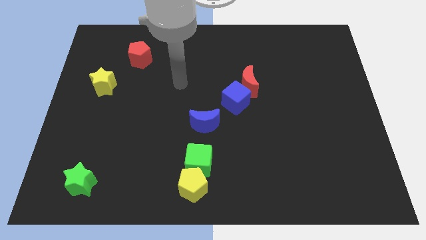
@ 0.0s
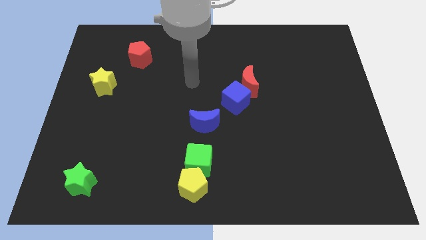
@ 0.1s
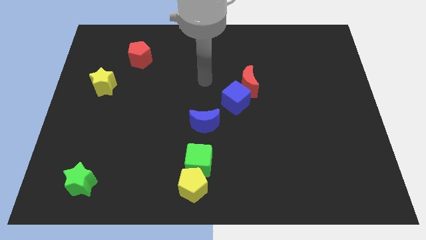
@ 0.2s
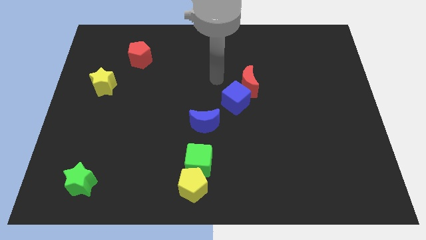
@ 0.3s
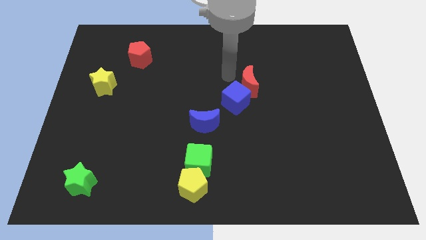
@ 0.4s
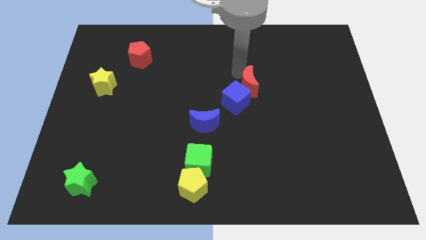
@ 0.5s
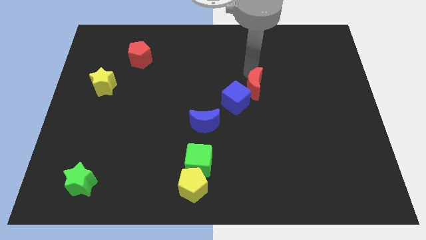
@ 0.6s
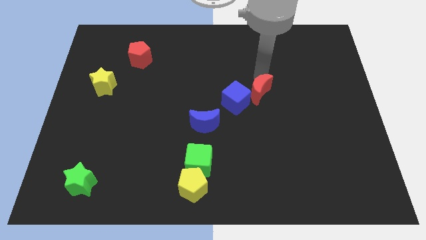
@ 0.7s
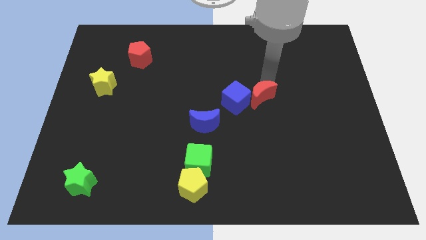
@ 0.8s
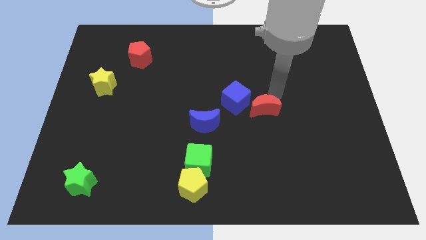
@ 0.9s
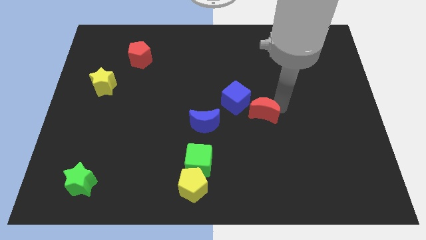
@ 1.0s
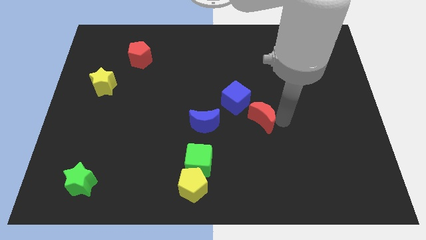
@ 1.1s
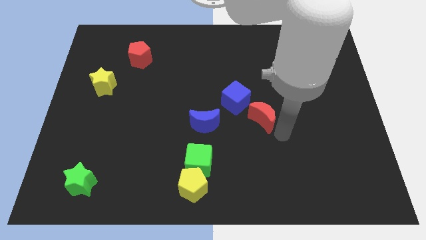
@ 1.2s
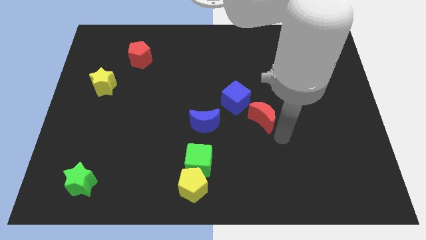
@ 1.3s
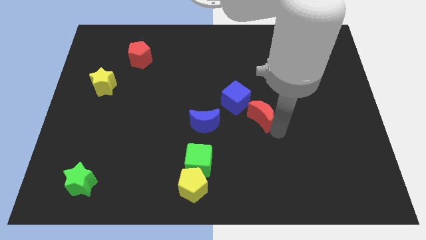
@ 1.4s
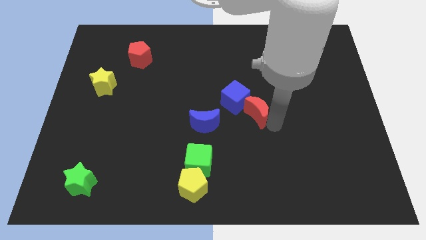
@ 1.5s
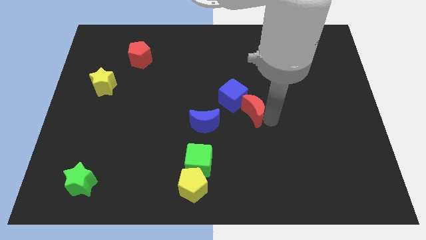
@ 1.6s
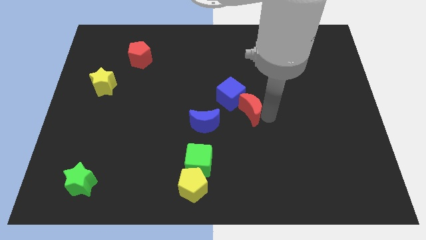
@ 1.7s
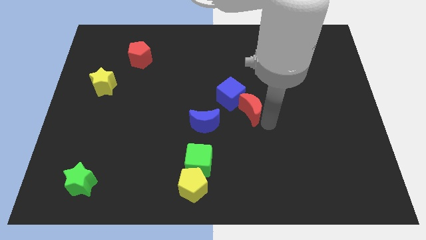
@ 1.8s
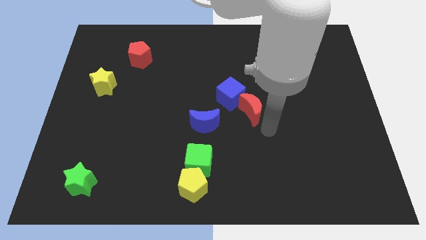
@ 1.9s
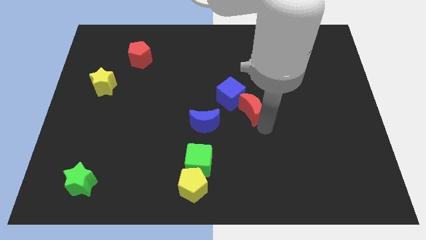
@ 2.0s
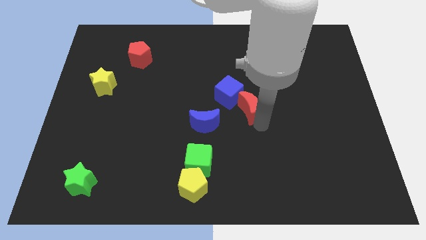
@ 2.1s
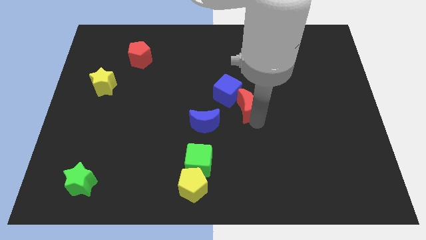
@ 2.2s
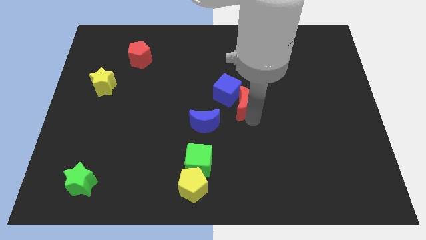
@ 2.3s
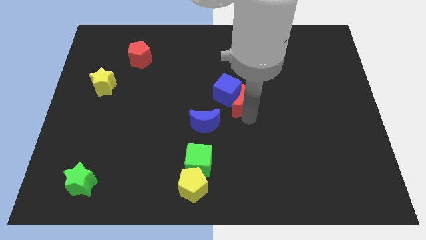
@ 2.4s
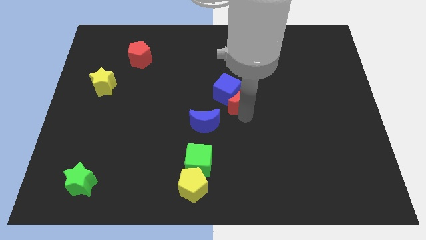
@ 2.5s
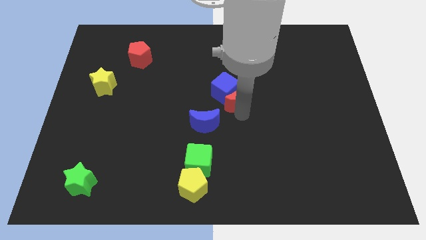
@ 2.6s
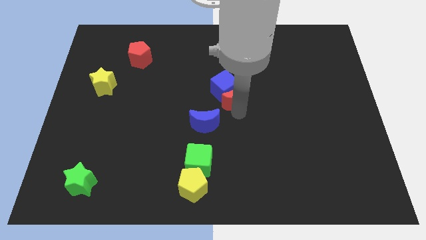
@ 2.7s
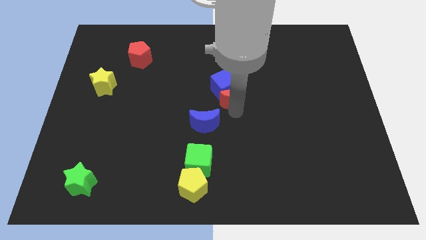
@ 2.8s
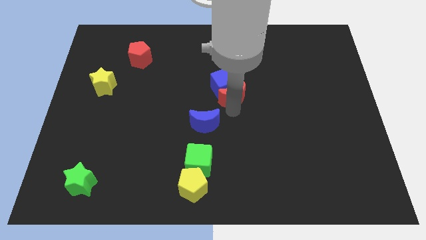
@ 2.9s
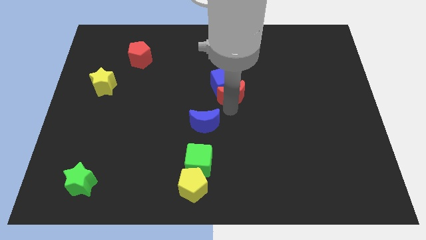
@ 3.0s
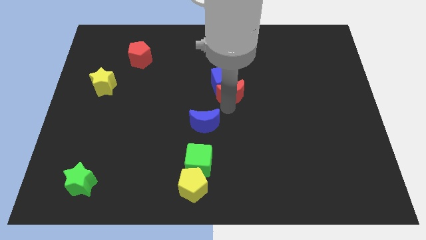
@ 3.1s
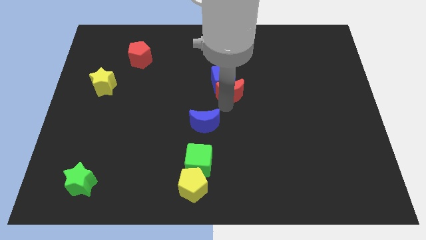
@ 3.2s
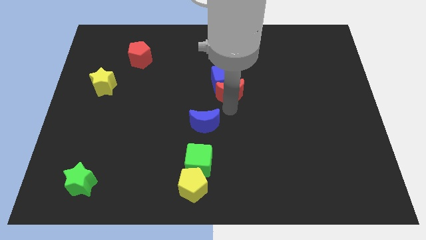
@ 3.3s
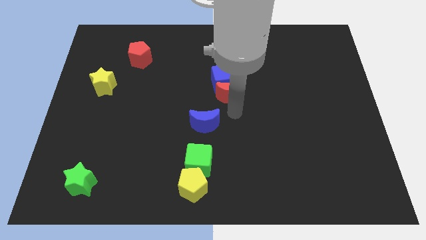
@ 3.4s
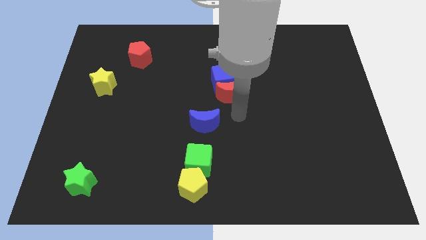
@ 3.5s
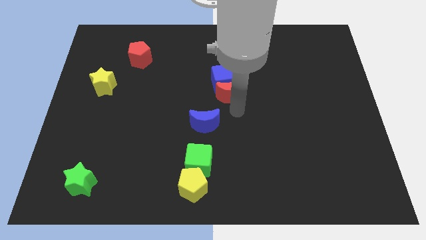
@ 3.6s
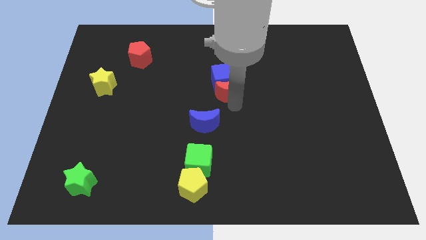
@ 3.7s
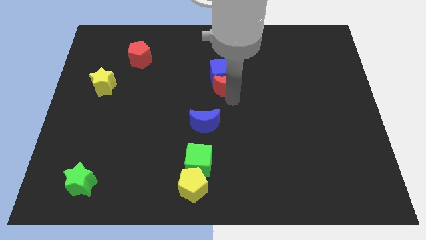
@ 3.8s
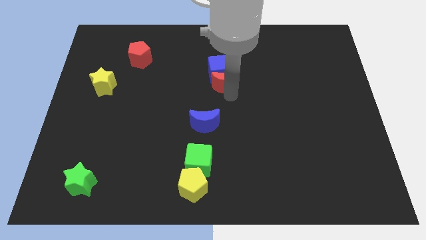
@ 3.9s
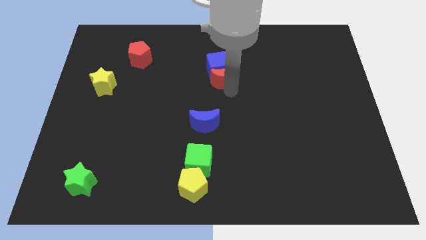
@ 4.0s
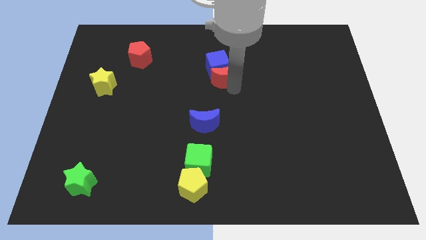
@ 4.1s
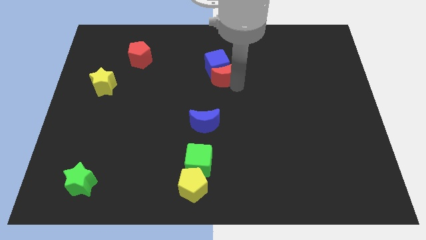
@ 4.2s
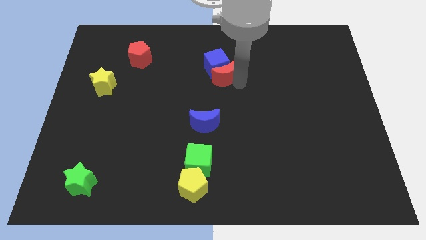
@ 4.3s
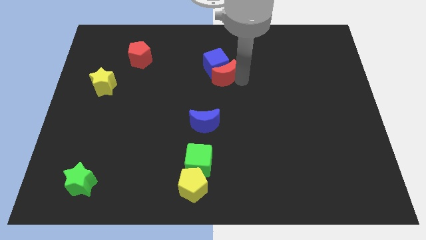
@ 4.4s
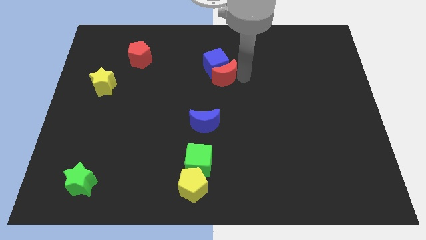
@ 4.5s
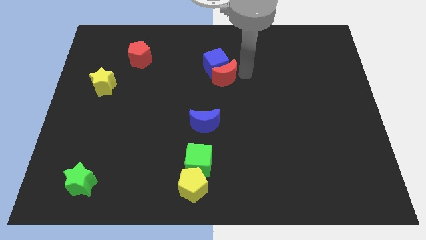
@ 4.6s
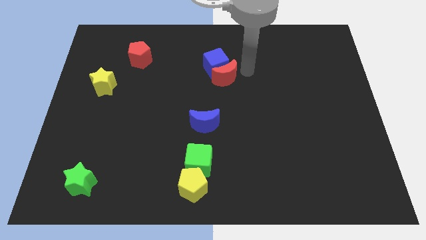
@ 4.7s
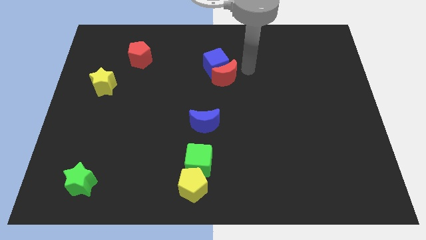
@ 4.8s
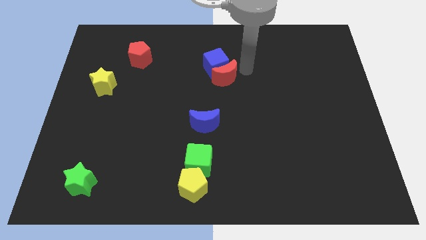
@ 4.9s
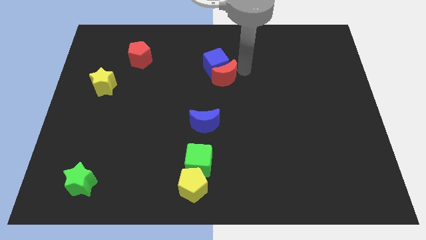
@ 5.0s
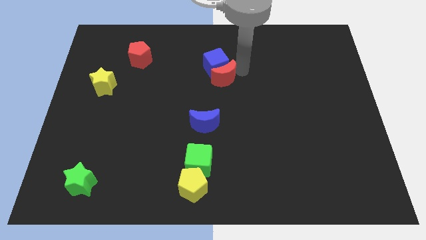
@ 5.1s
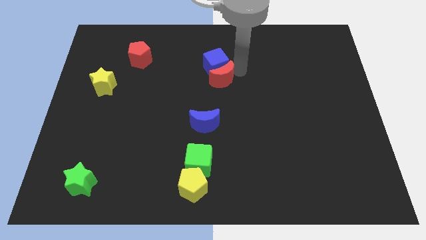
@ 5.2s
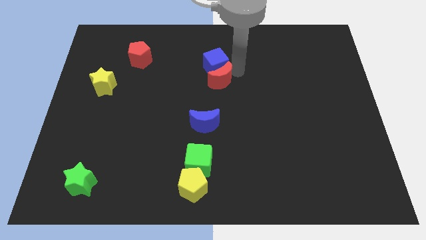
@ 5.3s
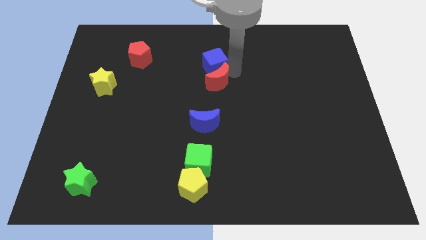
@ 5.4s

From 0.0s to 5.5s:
push the red moon a little to the left

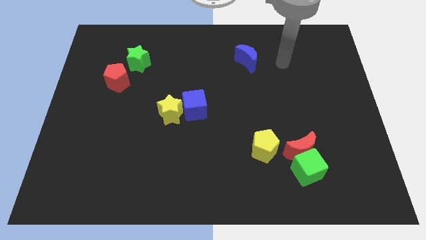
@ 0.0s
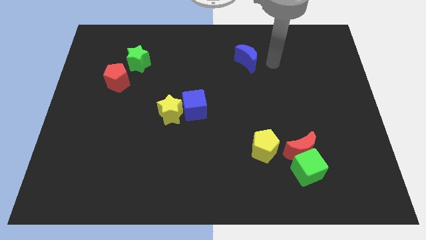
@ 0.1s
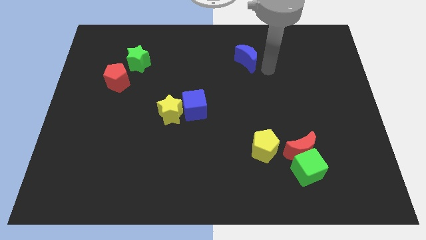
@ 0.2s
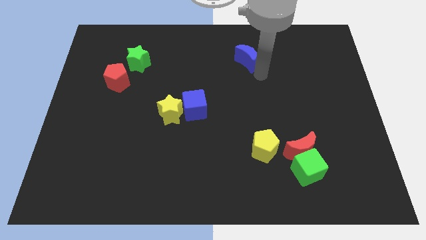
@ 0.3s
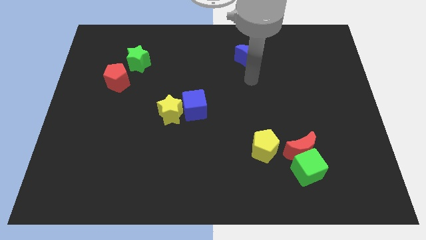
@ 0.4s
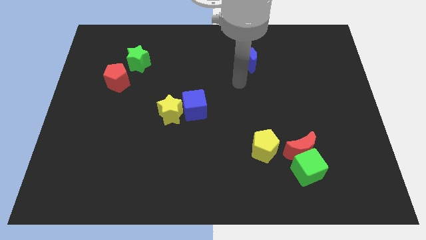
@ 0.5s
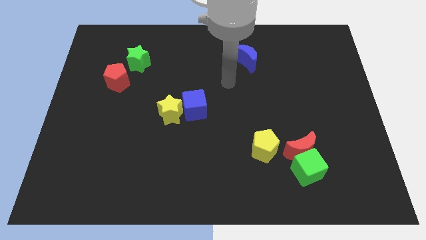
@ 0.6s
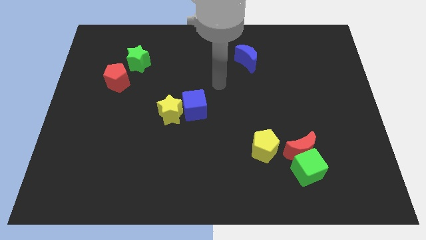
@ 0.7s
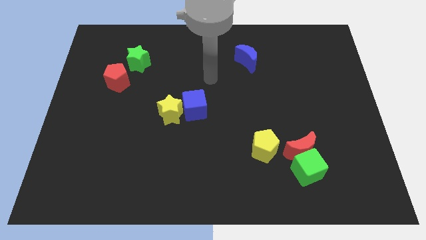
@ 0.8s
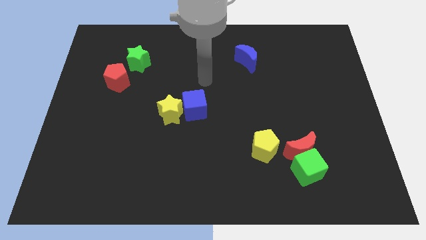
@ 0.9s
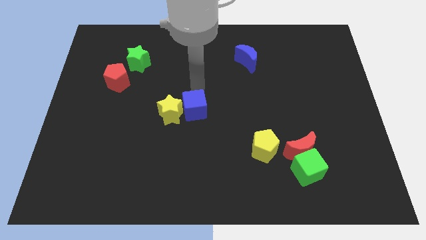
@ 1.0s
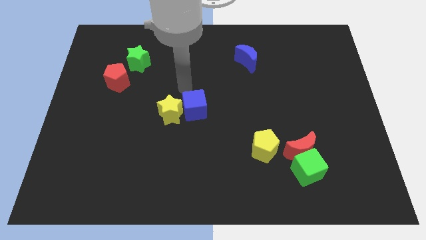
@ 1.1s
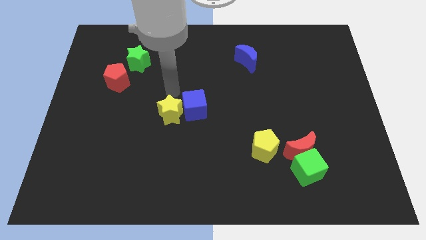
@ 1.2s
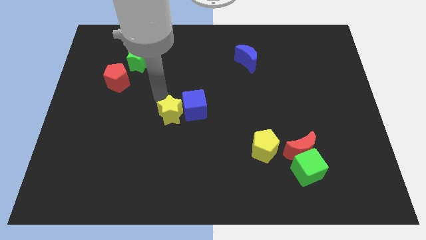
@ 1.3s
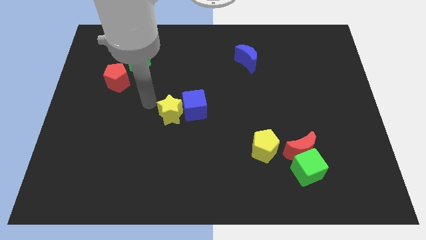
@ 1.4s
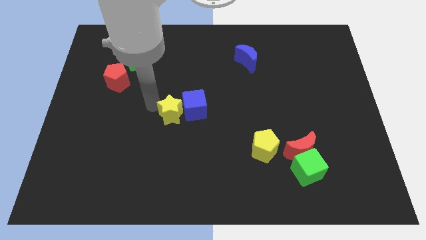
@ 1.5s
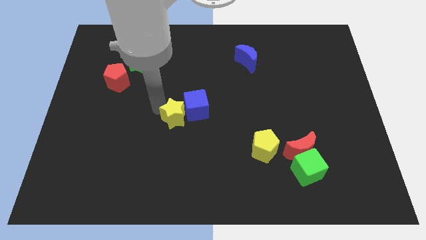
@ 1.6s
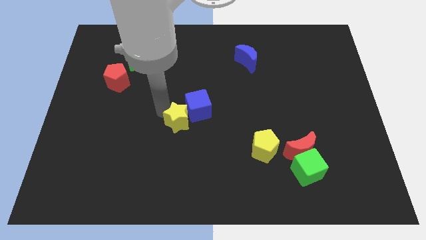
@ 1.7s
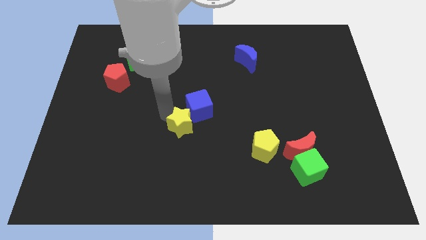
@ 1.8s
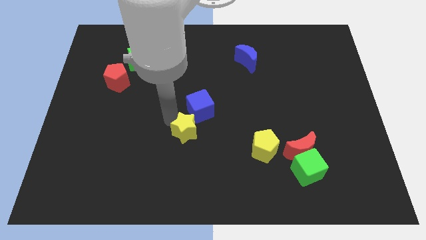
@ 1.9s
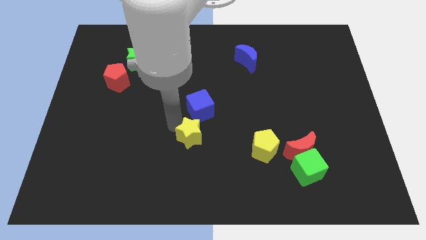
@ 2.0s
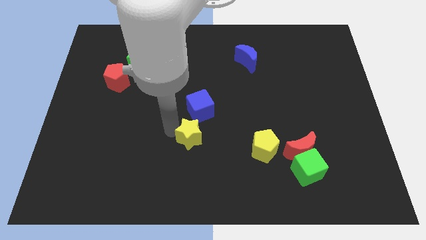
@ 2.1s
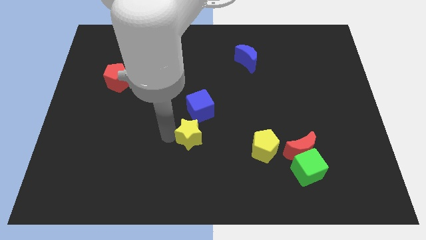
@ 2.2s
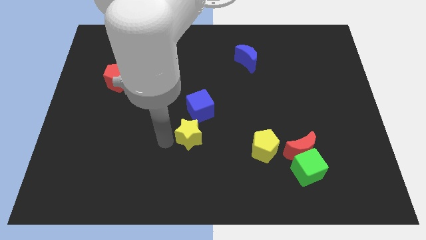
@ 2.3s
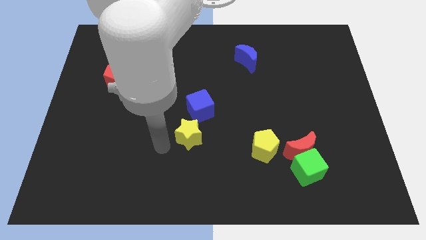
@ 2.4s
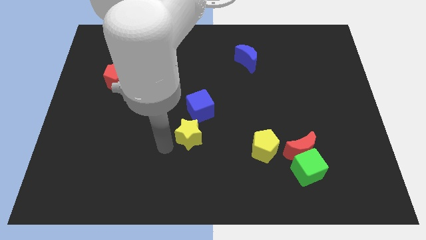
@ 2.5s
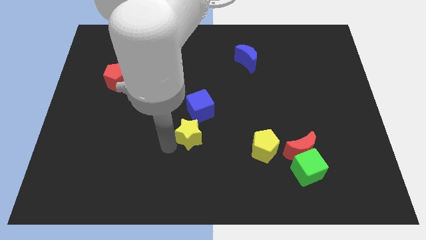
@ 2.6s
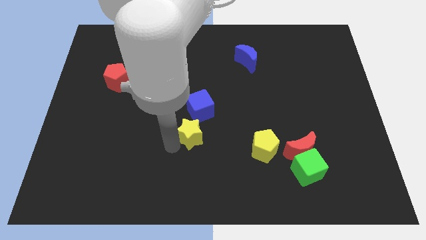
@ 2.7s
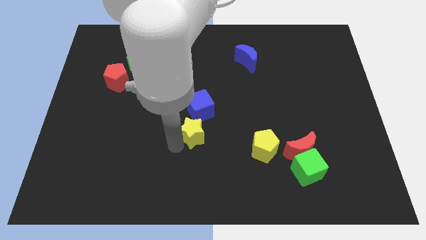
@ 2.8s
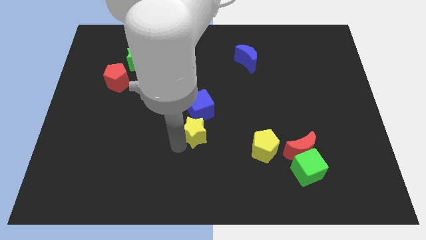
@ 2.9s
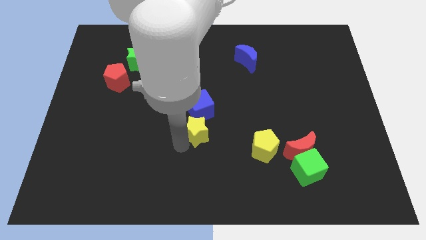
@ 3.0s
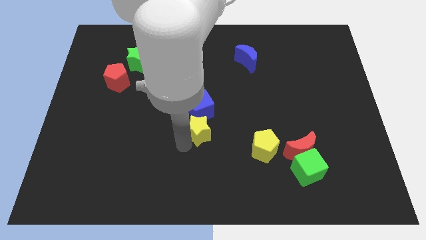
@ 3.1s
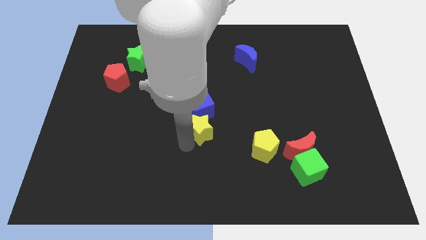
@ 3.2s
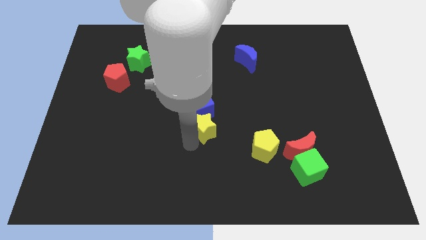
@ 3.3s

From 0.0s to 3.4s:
slightly slide the yellow star right
